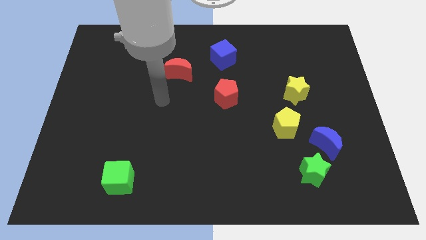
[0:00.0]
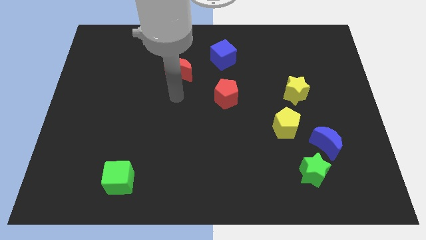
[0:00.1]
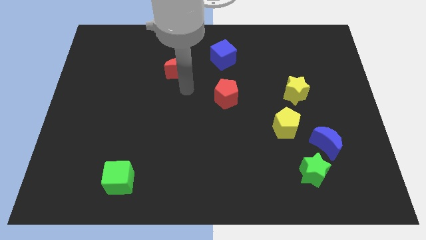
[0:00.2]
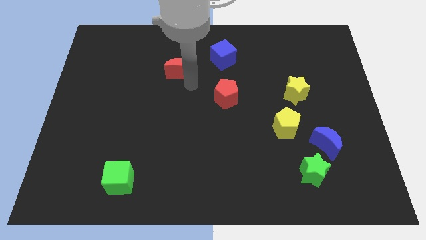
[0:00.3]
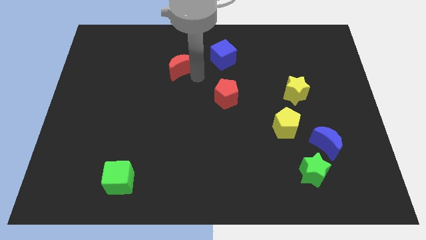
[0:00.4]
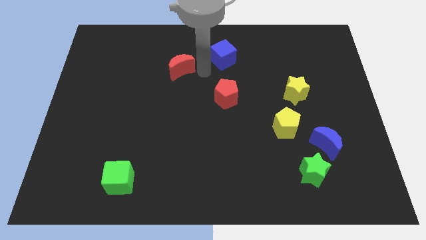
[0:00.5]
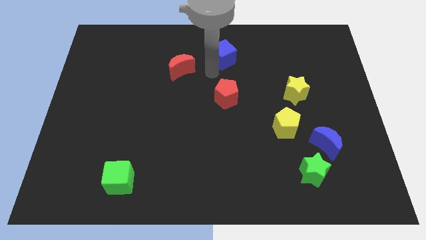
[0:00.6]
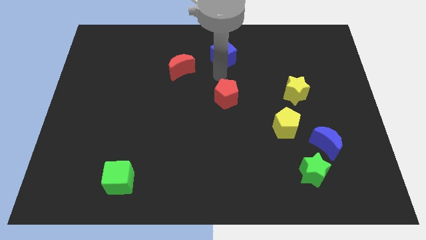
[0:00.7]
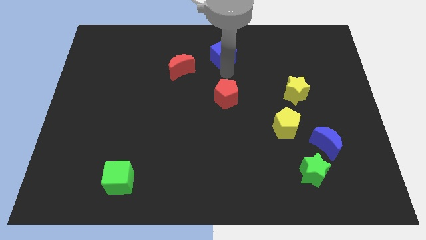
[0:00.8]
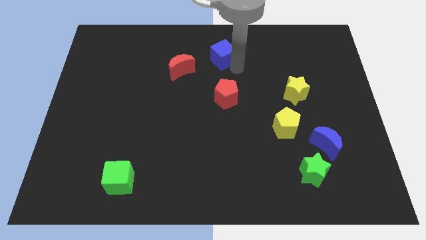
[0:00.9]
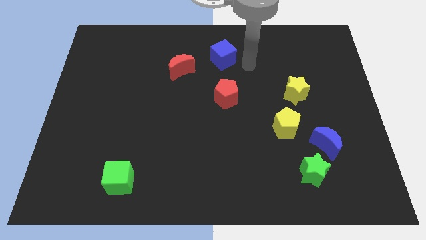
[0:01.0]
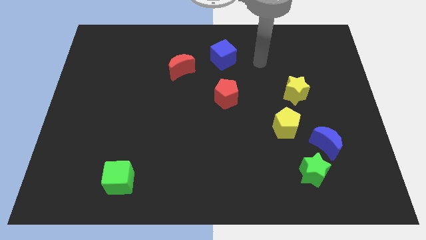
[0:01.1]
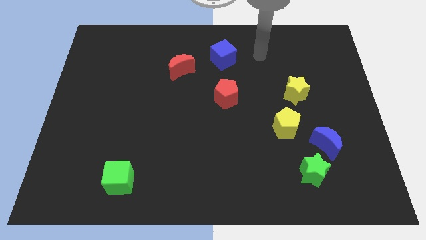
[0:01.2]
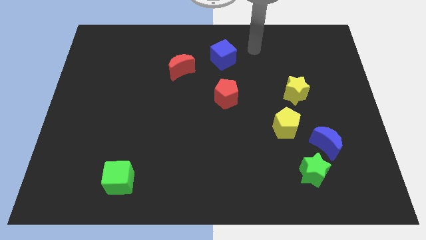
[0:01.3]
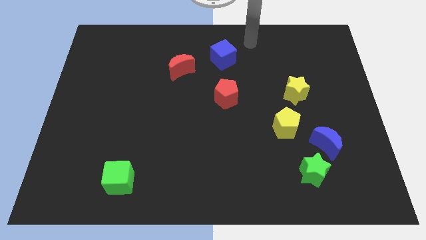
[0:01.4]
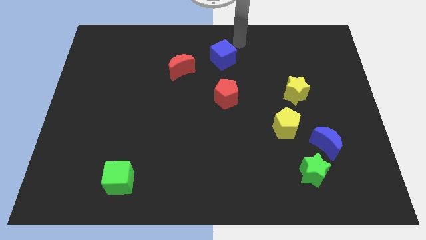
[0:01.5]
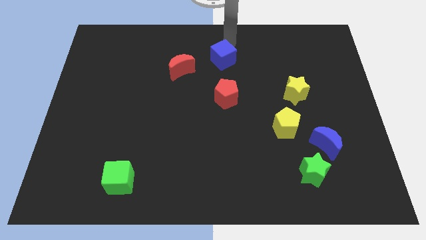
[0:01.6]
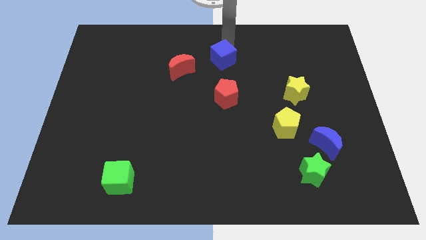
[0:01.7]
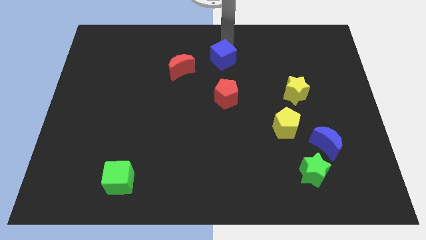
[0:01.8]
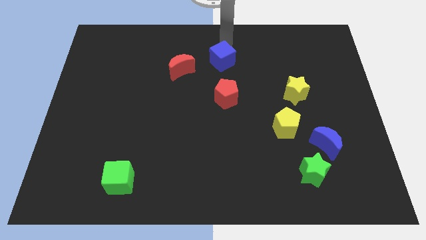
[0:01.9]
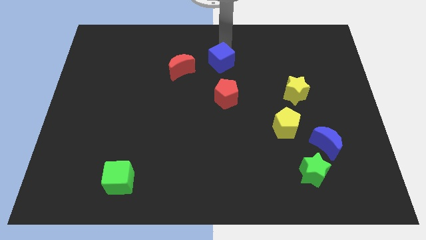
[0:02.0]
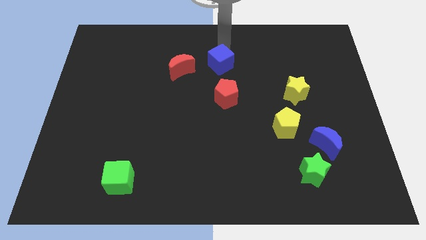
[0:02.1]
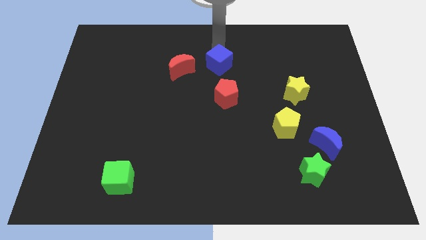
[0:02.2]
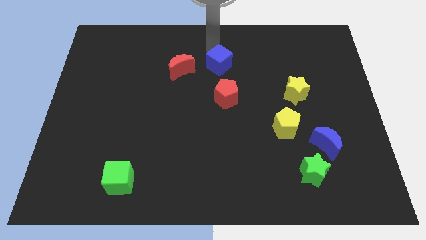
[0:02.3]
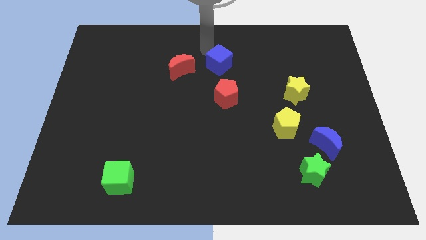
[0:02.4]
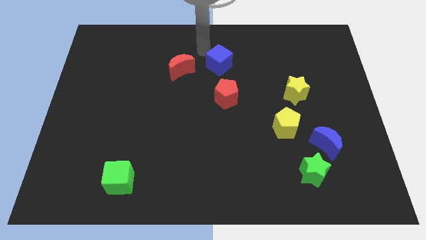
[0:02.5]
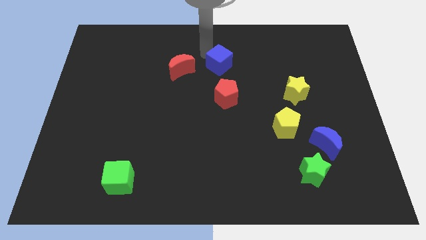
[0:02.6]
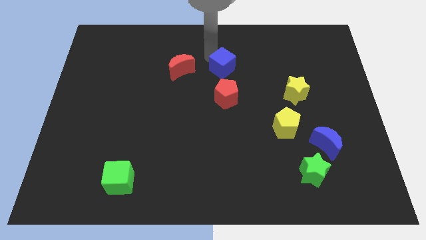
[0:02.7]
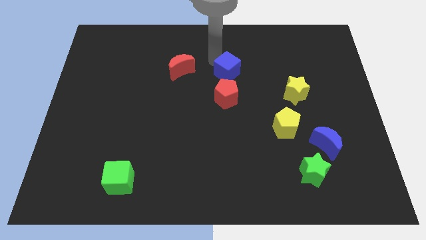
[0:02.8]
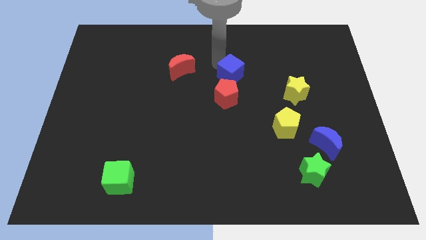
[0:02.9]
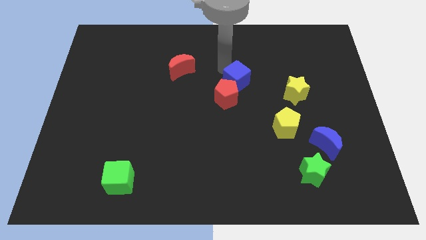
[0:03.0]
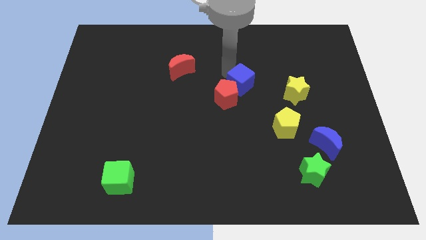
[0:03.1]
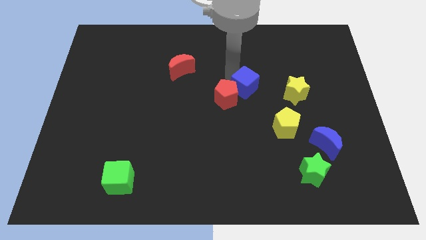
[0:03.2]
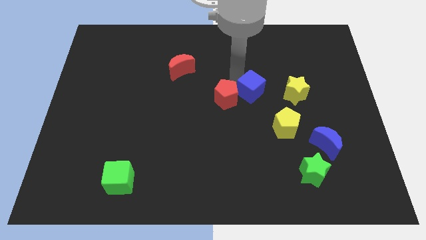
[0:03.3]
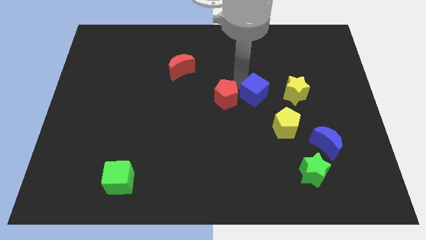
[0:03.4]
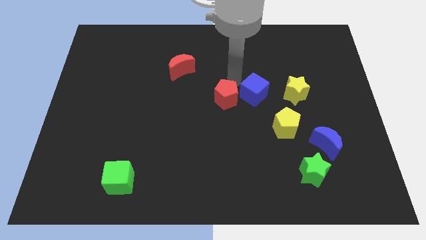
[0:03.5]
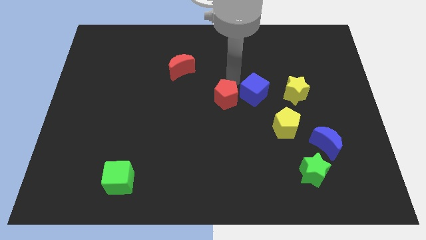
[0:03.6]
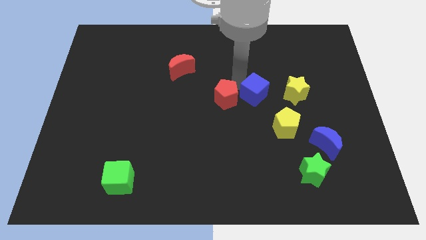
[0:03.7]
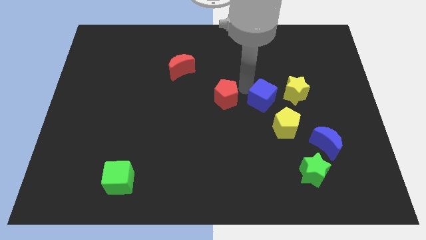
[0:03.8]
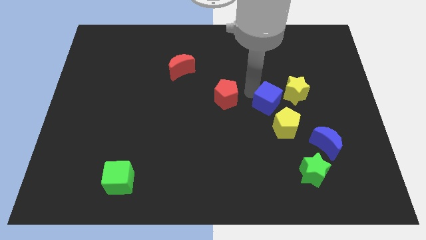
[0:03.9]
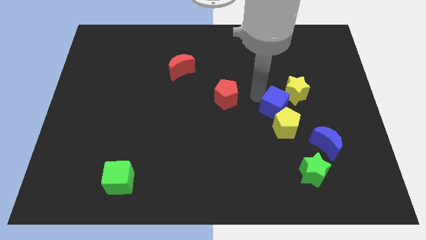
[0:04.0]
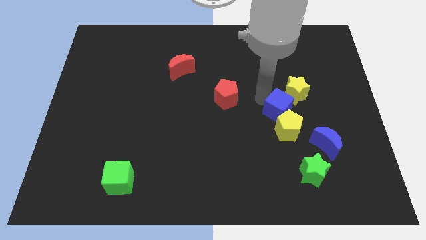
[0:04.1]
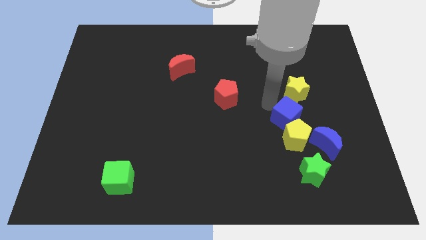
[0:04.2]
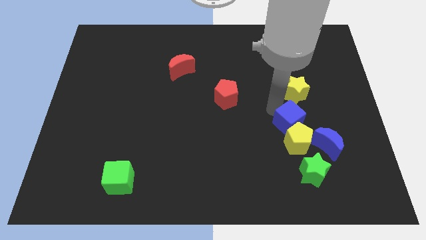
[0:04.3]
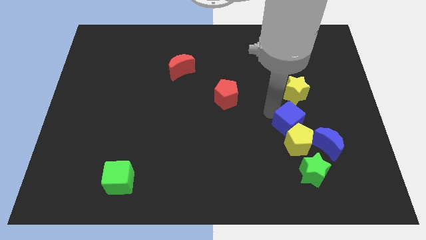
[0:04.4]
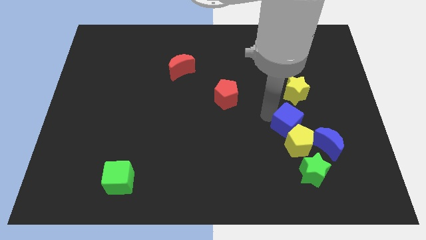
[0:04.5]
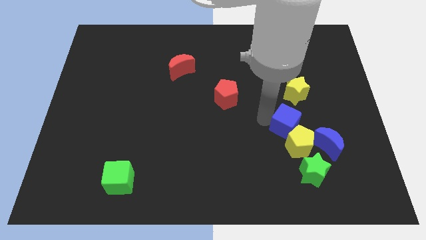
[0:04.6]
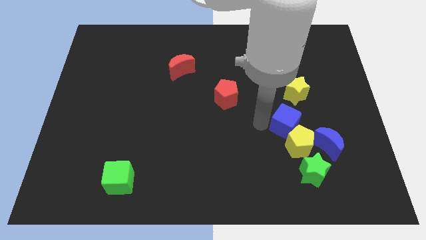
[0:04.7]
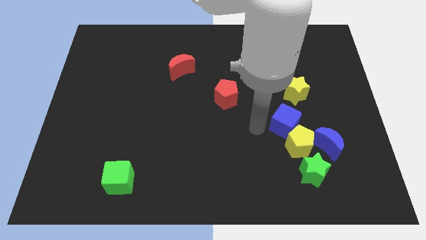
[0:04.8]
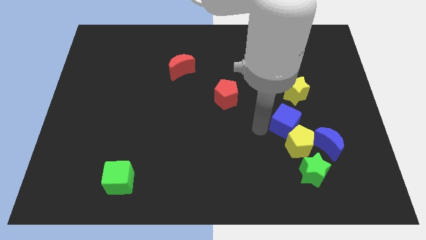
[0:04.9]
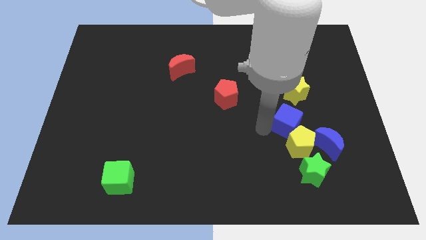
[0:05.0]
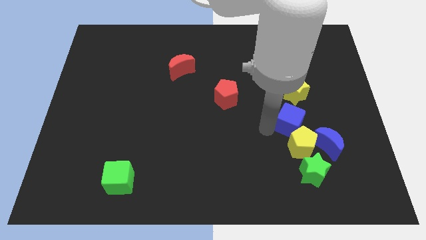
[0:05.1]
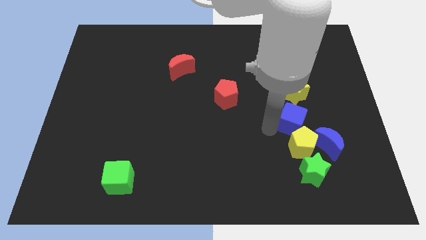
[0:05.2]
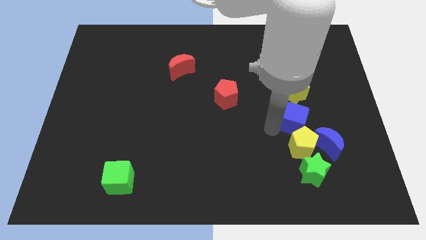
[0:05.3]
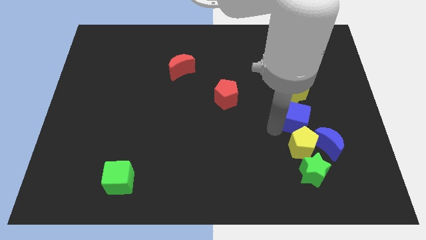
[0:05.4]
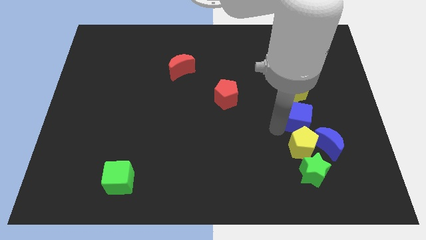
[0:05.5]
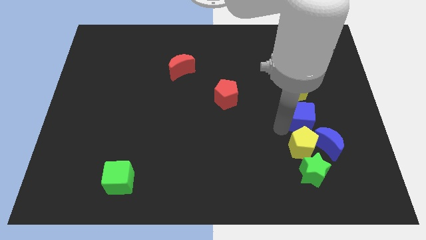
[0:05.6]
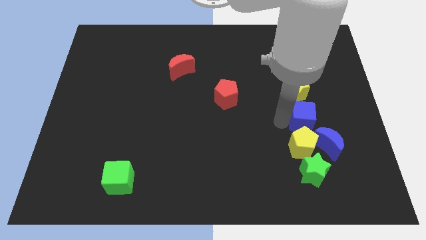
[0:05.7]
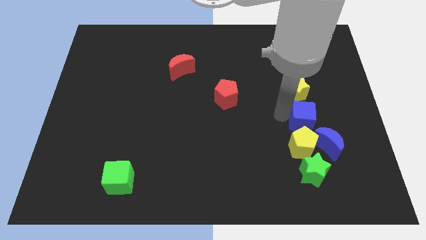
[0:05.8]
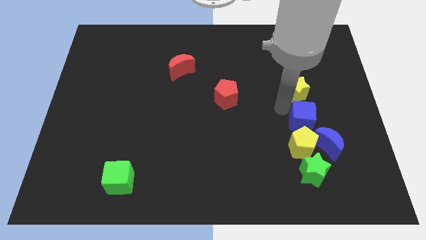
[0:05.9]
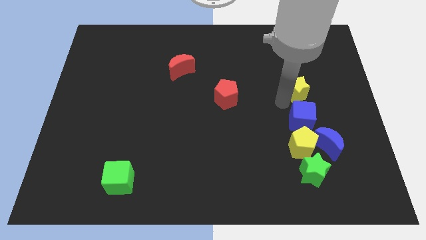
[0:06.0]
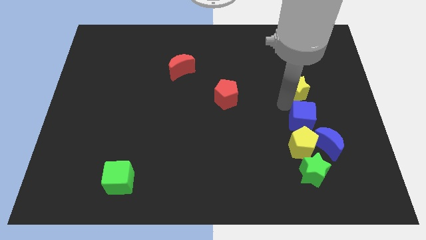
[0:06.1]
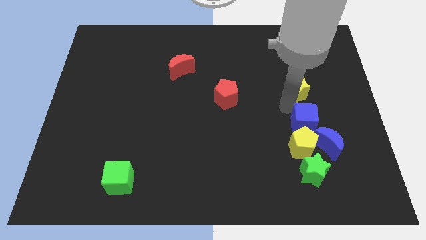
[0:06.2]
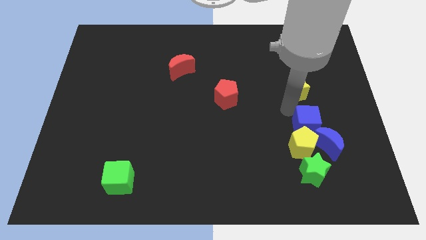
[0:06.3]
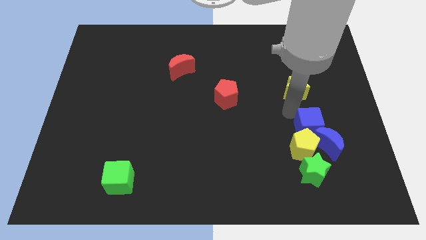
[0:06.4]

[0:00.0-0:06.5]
move the blue cube next to the blue moon
